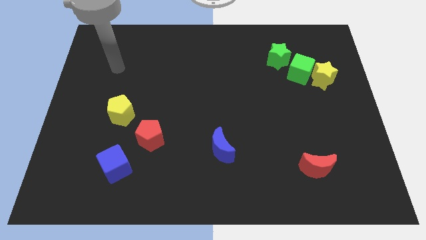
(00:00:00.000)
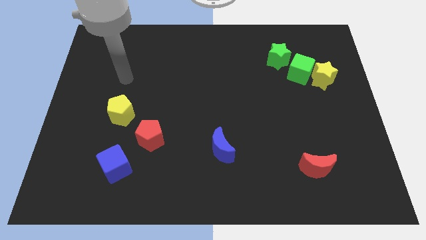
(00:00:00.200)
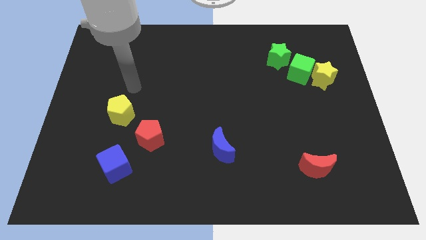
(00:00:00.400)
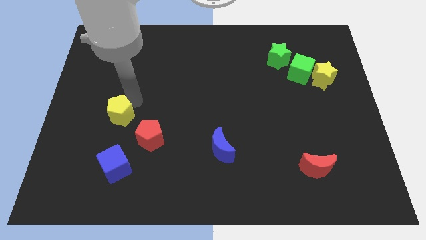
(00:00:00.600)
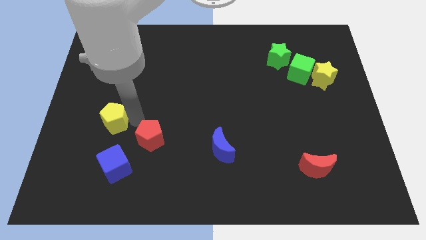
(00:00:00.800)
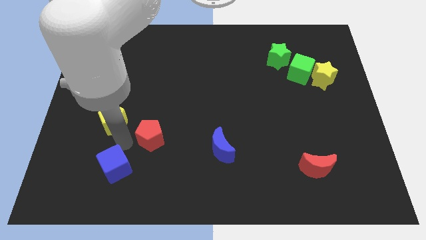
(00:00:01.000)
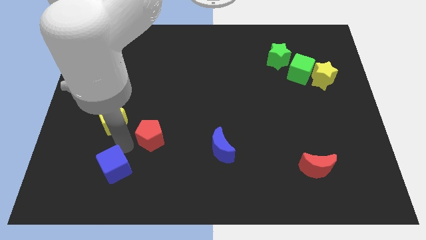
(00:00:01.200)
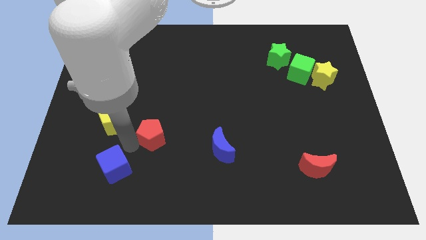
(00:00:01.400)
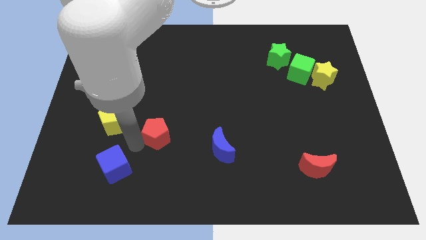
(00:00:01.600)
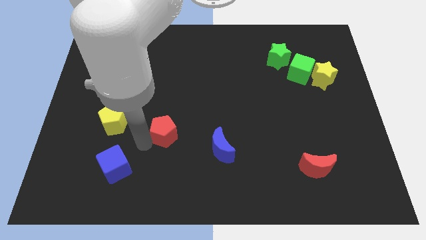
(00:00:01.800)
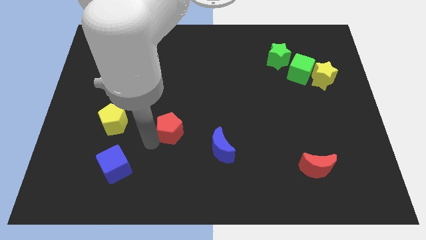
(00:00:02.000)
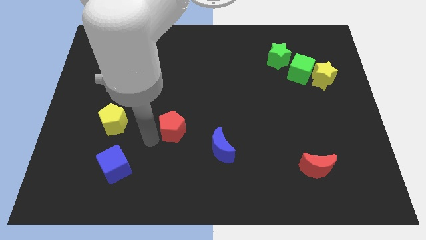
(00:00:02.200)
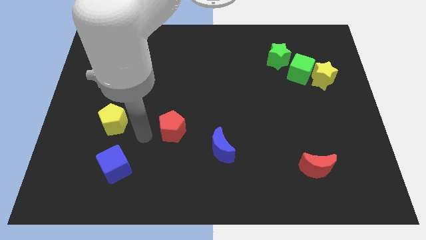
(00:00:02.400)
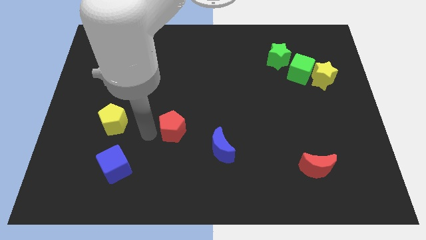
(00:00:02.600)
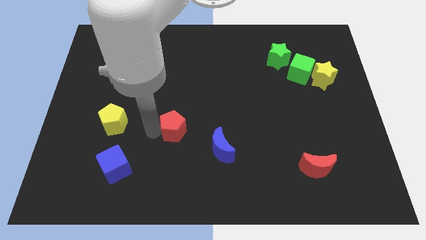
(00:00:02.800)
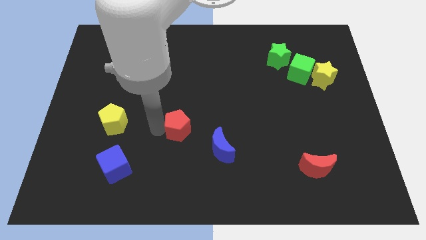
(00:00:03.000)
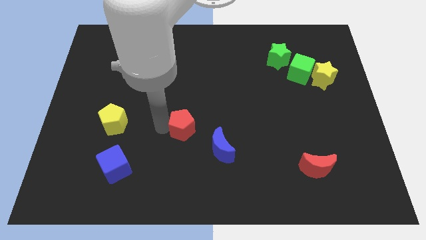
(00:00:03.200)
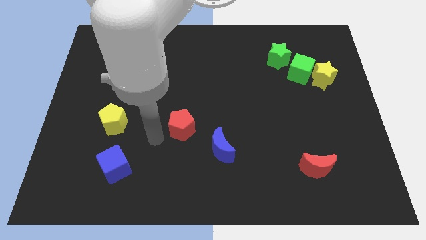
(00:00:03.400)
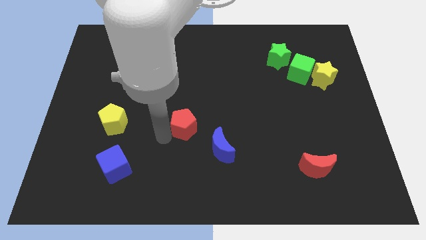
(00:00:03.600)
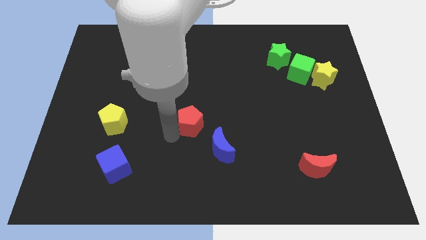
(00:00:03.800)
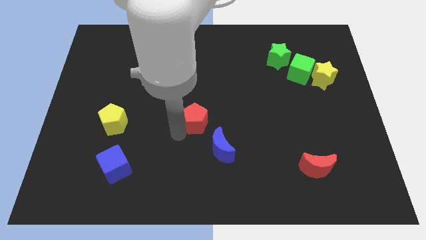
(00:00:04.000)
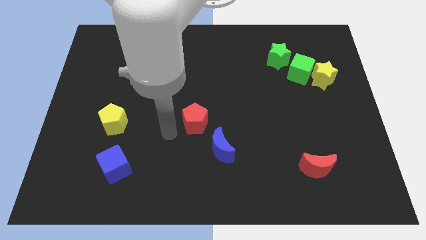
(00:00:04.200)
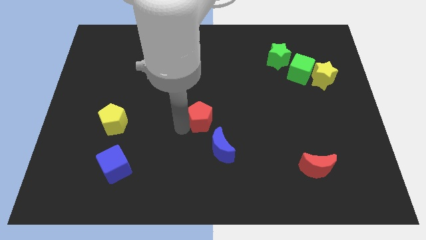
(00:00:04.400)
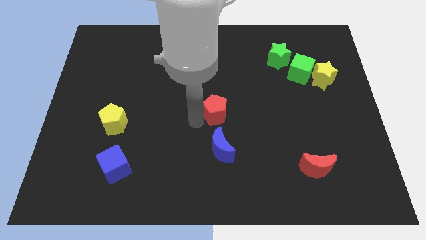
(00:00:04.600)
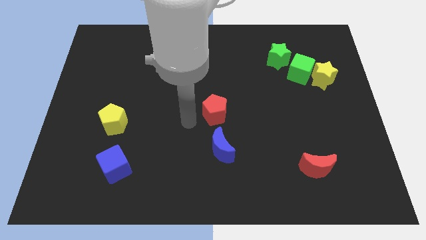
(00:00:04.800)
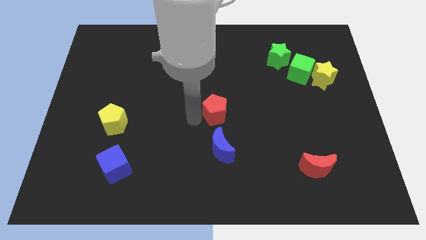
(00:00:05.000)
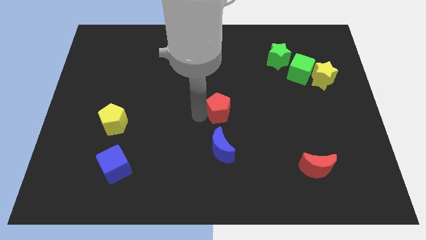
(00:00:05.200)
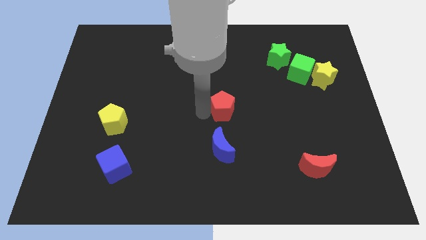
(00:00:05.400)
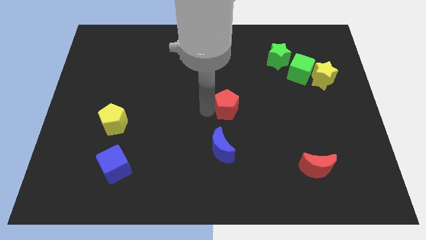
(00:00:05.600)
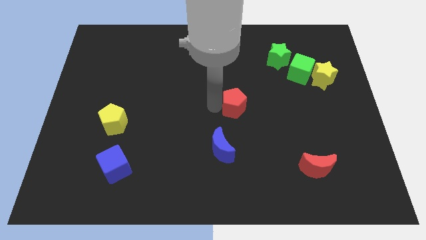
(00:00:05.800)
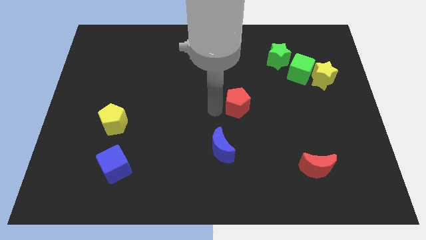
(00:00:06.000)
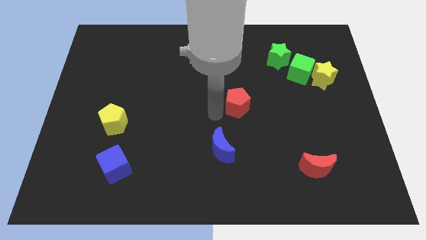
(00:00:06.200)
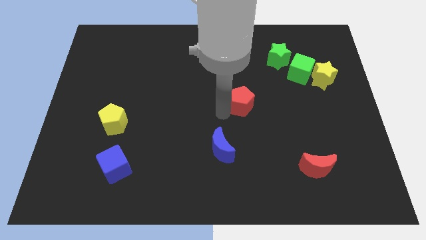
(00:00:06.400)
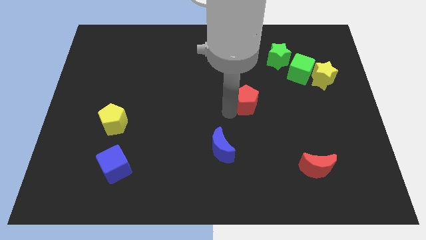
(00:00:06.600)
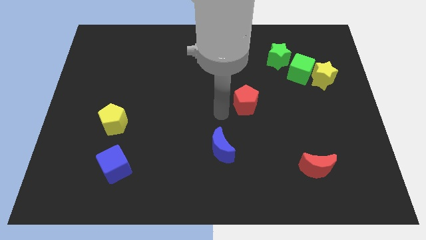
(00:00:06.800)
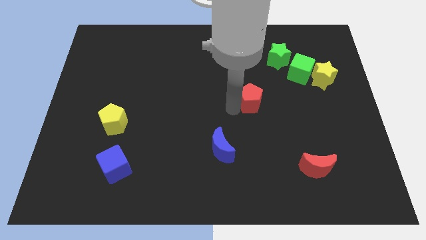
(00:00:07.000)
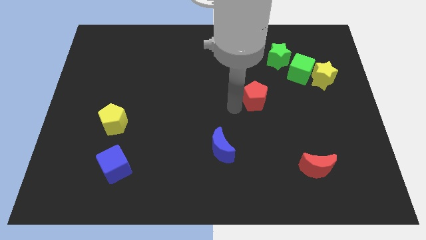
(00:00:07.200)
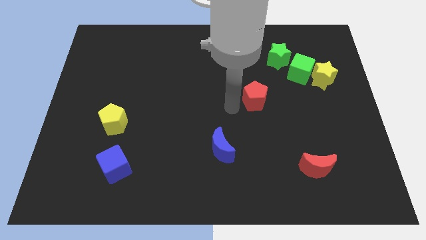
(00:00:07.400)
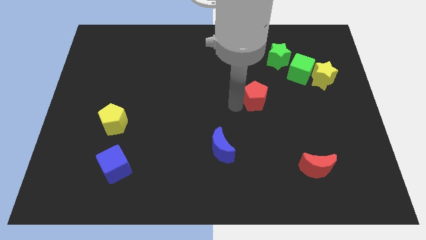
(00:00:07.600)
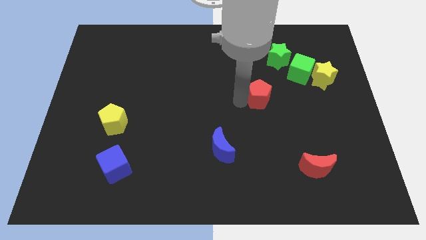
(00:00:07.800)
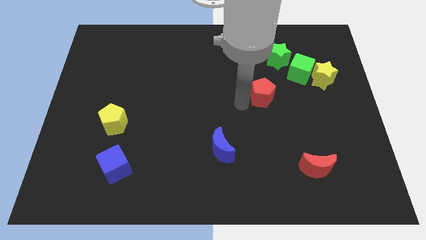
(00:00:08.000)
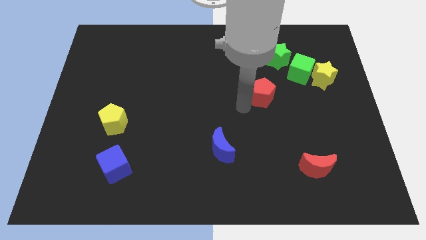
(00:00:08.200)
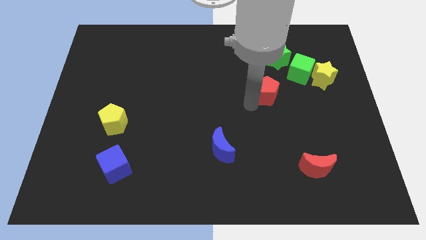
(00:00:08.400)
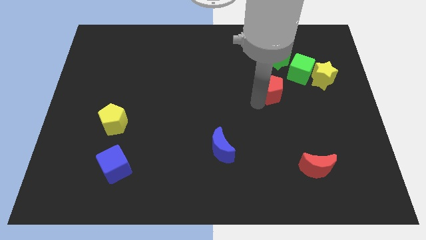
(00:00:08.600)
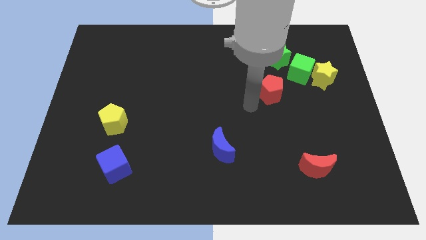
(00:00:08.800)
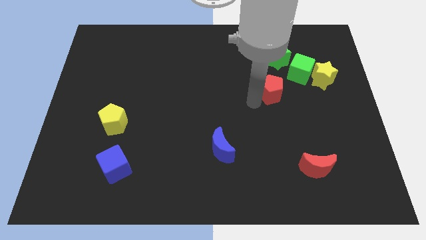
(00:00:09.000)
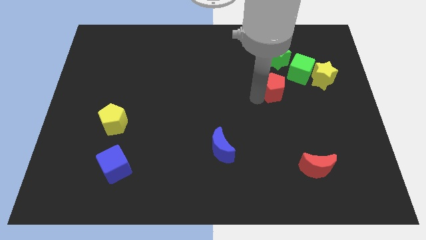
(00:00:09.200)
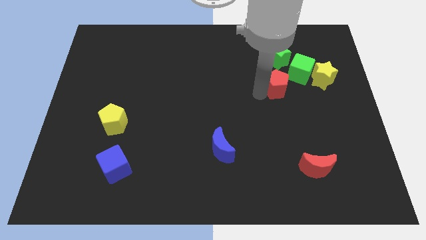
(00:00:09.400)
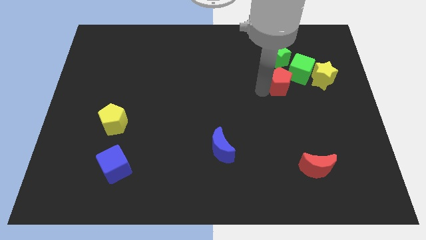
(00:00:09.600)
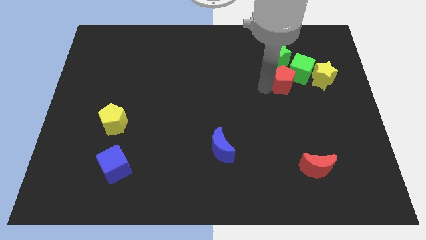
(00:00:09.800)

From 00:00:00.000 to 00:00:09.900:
move the red pentagon towards the green cube

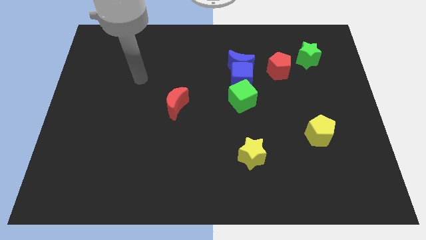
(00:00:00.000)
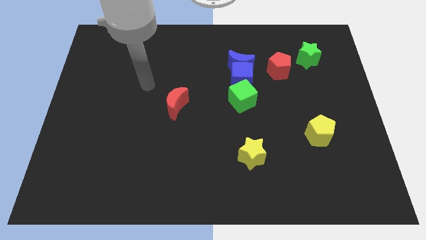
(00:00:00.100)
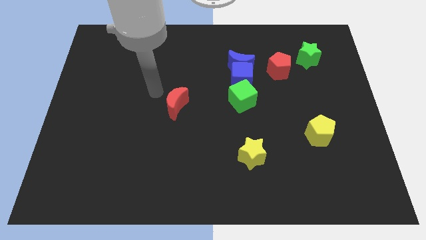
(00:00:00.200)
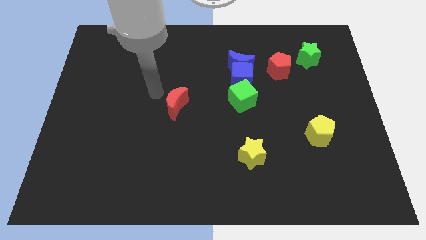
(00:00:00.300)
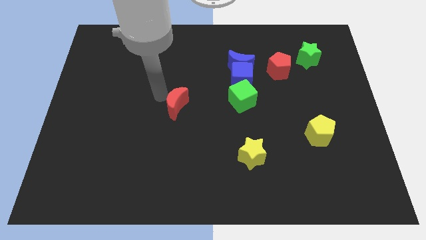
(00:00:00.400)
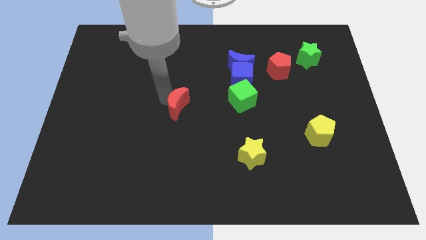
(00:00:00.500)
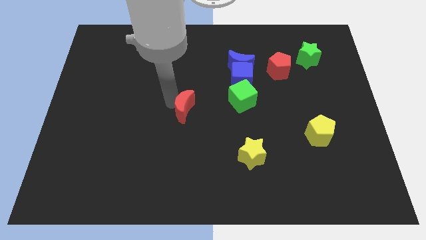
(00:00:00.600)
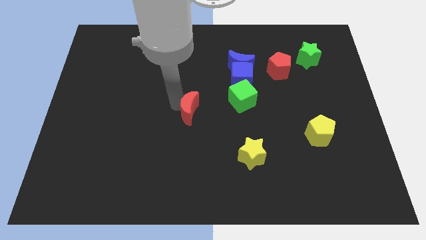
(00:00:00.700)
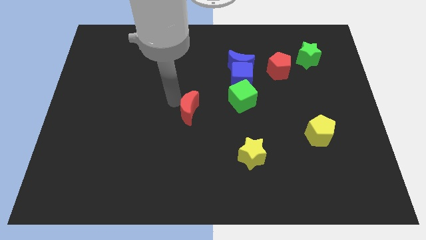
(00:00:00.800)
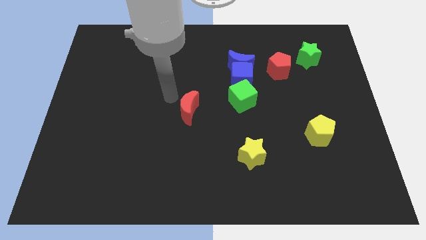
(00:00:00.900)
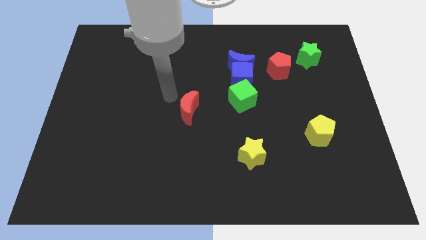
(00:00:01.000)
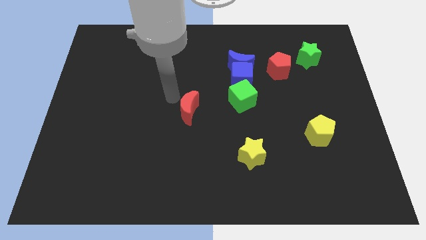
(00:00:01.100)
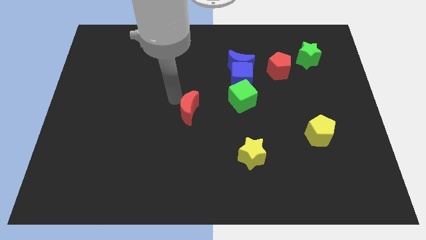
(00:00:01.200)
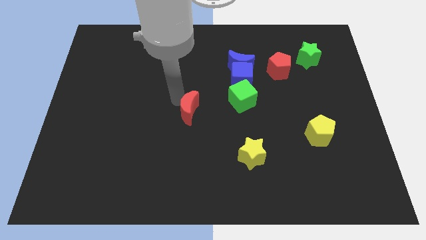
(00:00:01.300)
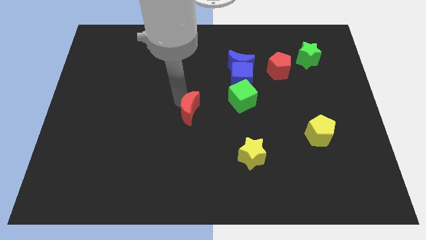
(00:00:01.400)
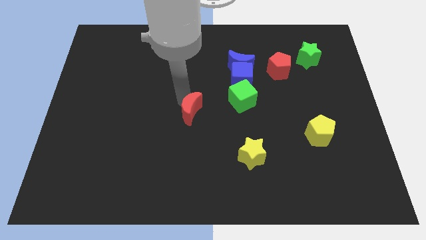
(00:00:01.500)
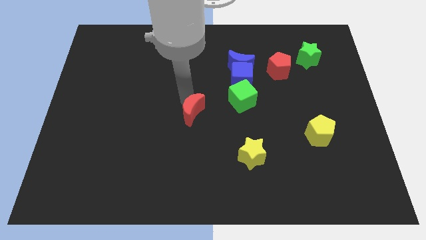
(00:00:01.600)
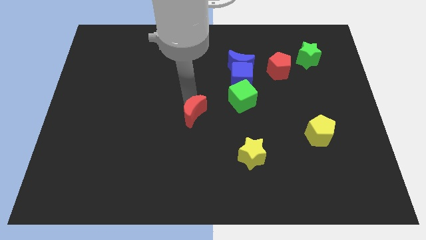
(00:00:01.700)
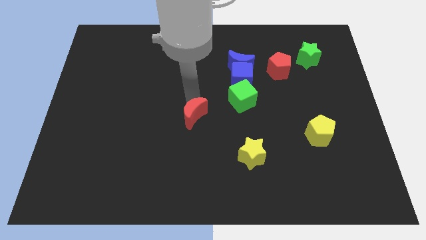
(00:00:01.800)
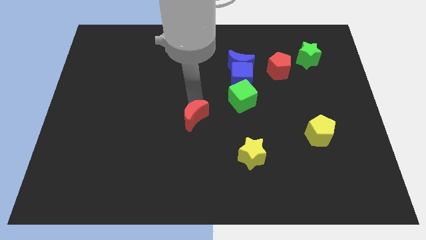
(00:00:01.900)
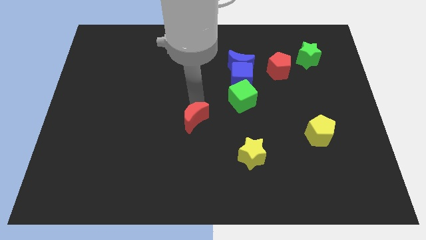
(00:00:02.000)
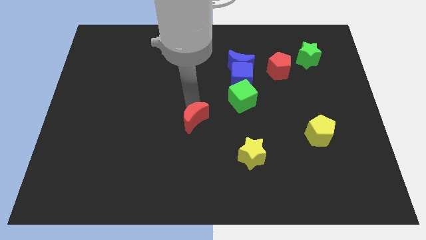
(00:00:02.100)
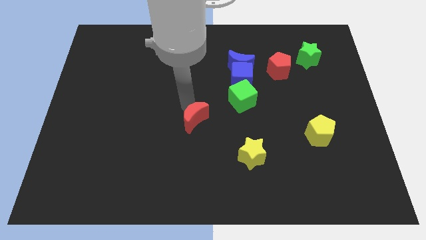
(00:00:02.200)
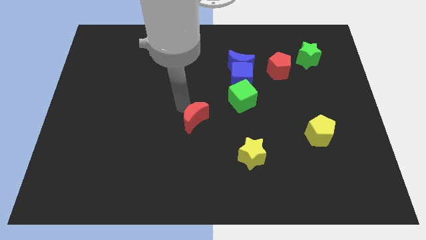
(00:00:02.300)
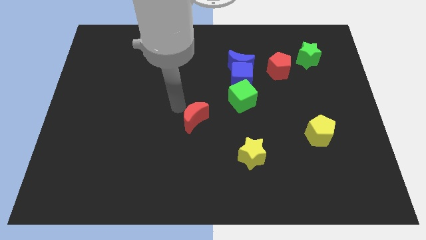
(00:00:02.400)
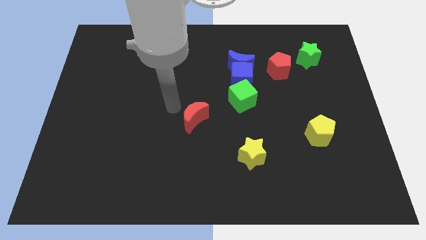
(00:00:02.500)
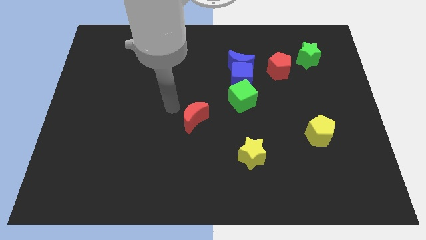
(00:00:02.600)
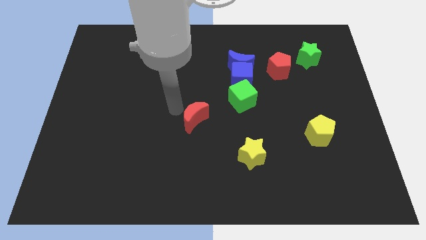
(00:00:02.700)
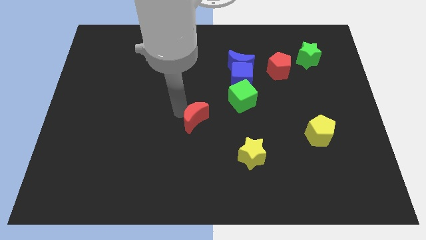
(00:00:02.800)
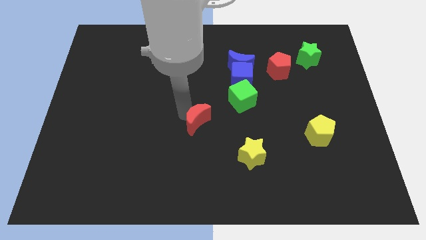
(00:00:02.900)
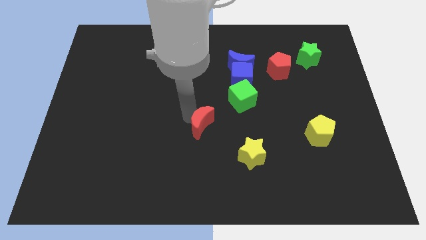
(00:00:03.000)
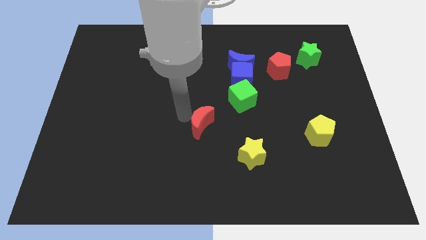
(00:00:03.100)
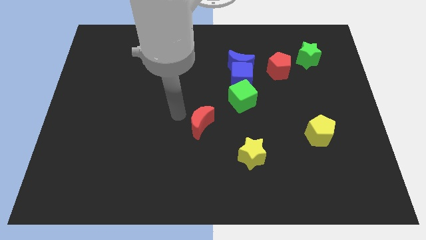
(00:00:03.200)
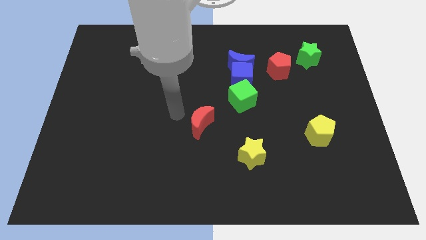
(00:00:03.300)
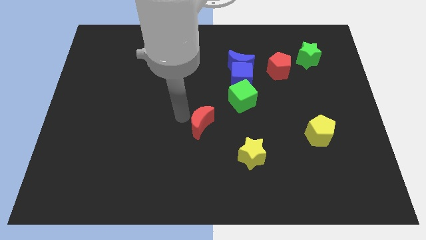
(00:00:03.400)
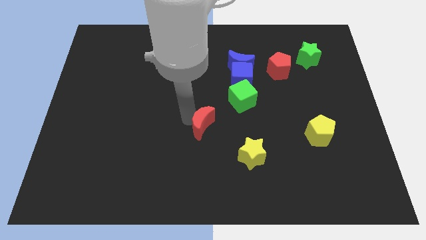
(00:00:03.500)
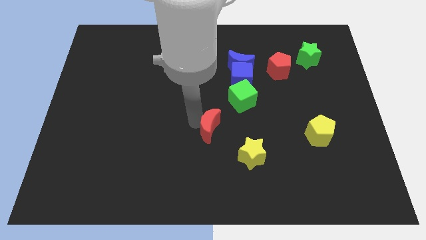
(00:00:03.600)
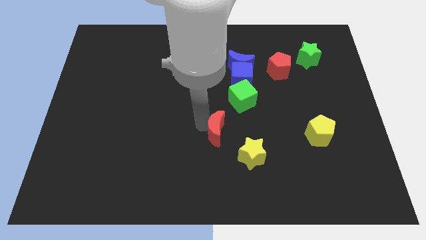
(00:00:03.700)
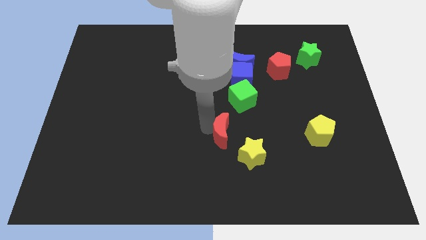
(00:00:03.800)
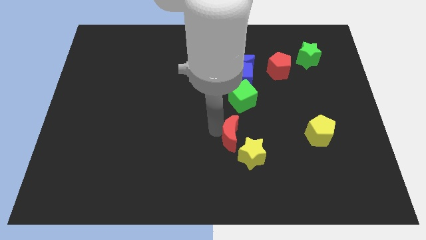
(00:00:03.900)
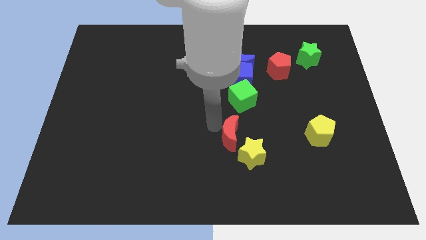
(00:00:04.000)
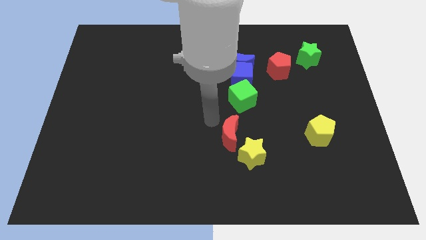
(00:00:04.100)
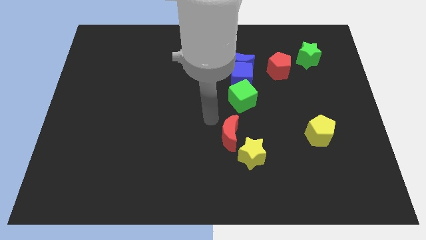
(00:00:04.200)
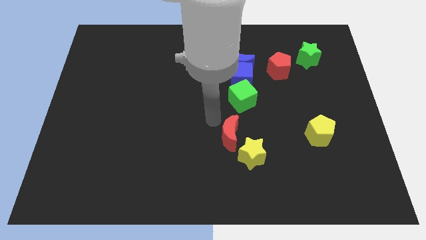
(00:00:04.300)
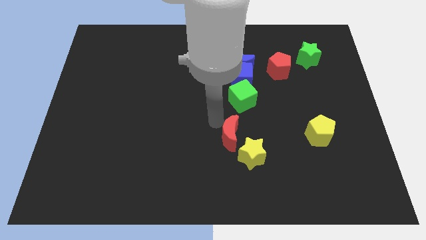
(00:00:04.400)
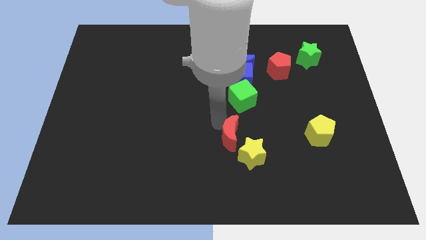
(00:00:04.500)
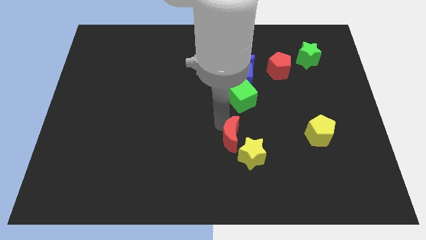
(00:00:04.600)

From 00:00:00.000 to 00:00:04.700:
move the red moon to the yellow star
